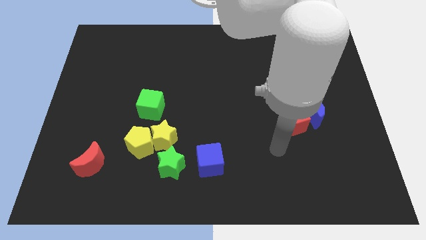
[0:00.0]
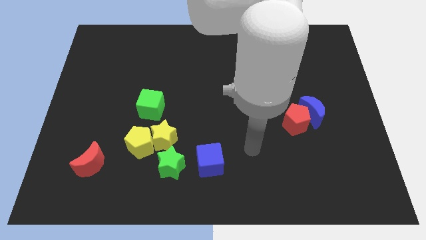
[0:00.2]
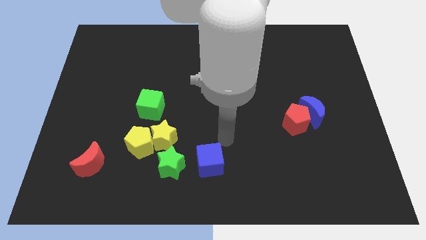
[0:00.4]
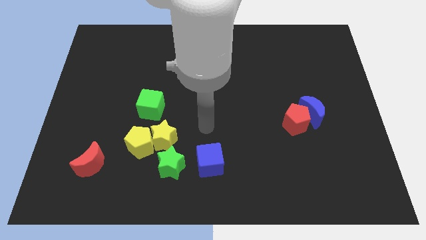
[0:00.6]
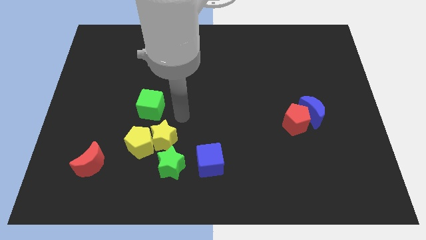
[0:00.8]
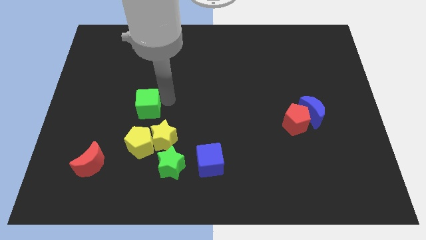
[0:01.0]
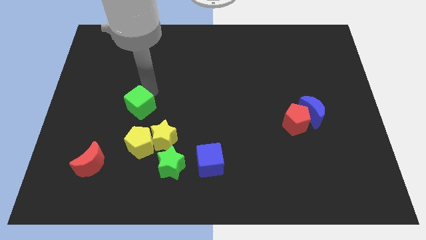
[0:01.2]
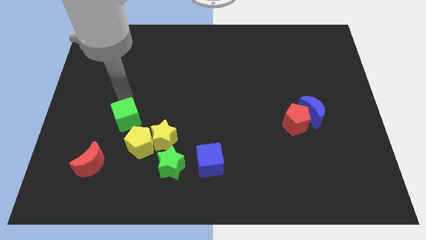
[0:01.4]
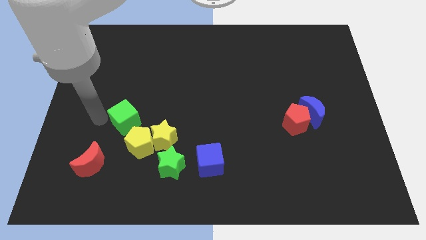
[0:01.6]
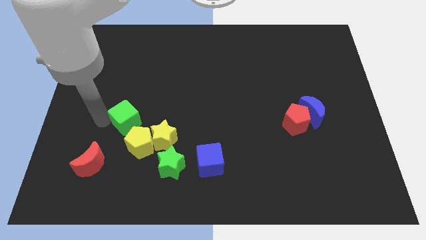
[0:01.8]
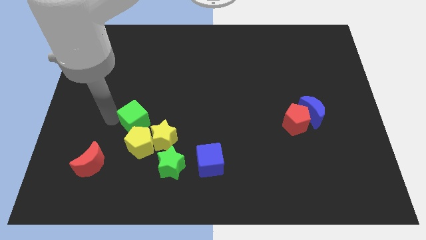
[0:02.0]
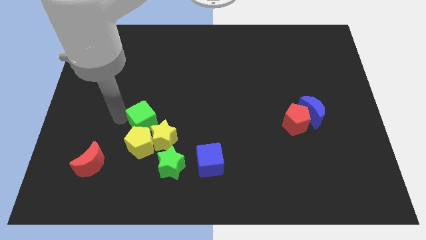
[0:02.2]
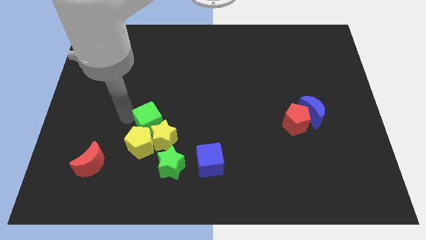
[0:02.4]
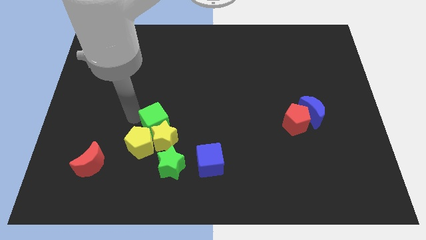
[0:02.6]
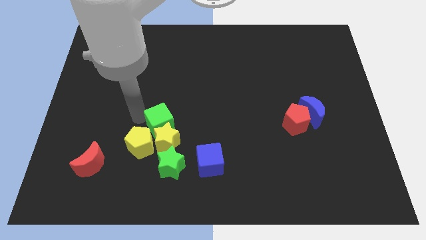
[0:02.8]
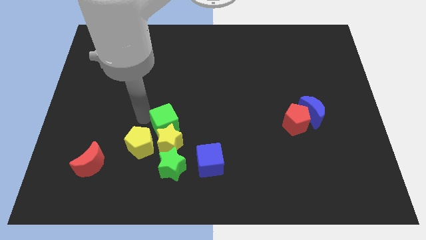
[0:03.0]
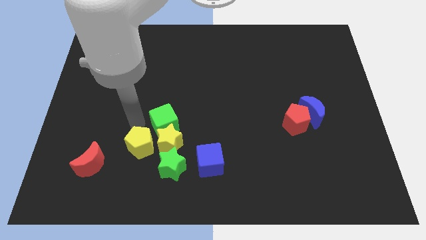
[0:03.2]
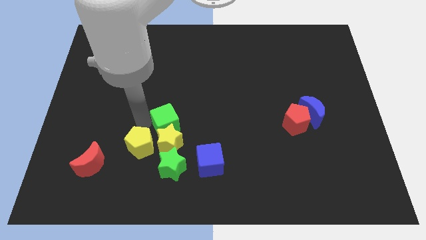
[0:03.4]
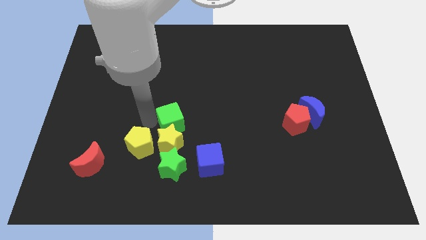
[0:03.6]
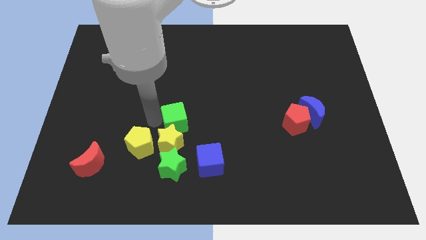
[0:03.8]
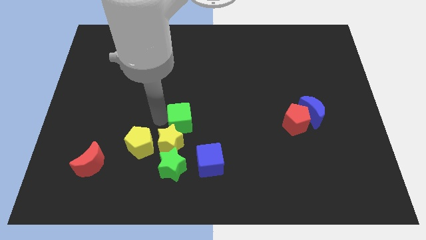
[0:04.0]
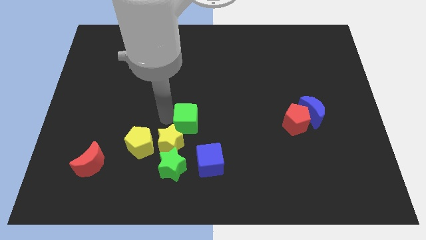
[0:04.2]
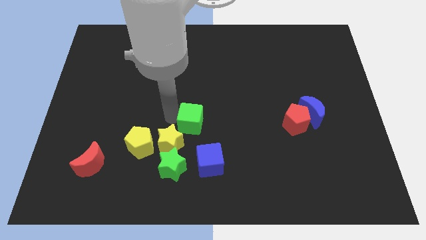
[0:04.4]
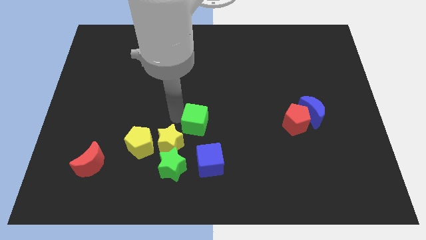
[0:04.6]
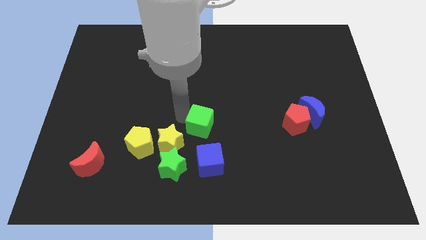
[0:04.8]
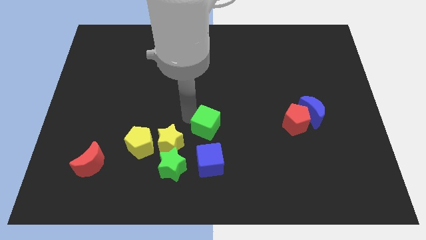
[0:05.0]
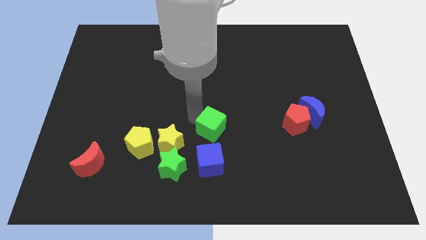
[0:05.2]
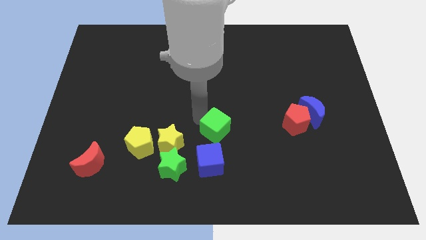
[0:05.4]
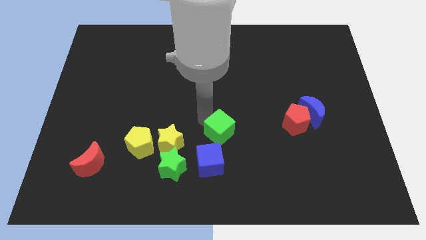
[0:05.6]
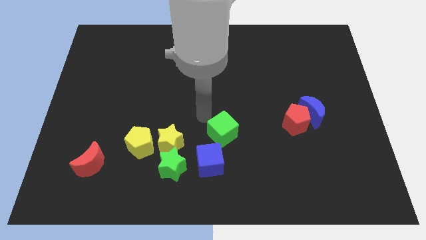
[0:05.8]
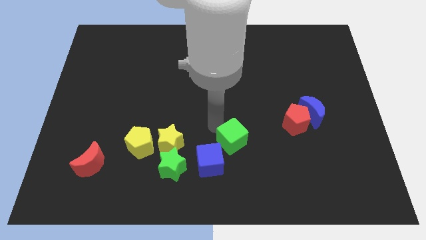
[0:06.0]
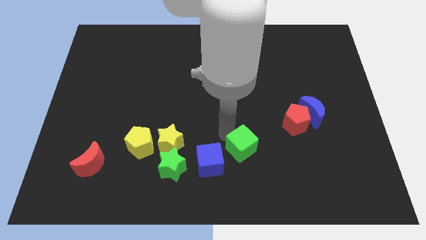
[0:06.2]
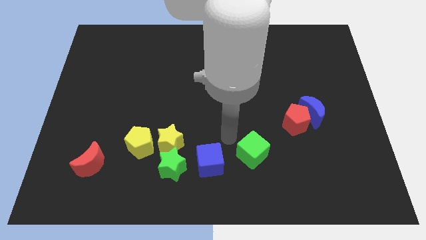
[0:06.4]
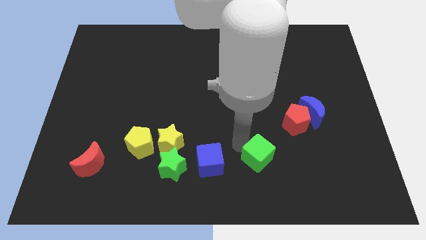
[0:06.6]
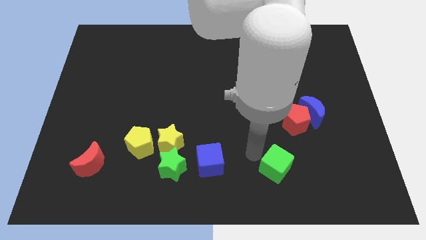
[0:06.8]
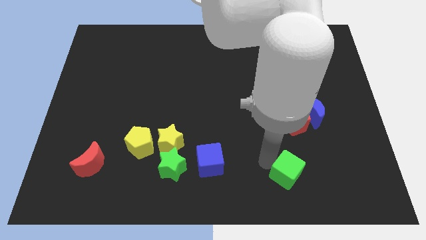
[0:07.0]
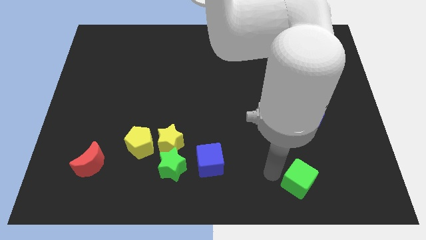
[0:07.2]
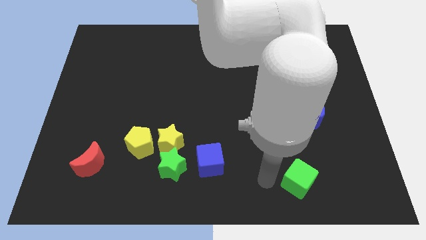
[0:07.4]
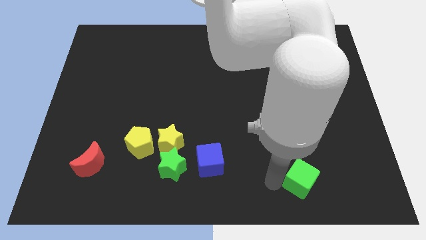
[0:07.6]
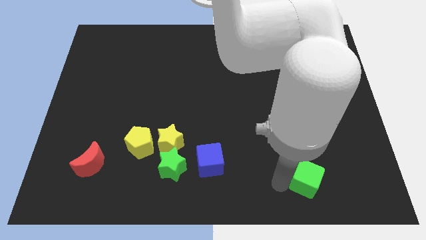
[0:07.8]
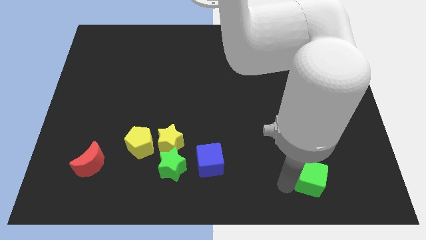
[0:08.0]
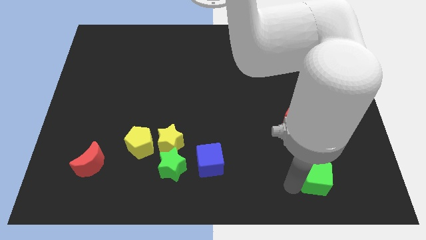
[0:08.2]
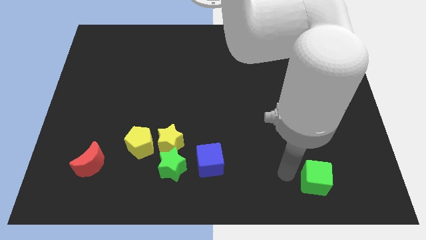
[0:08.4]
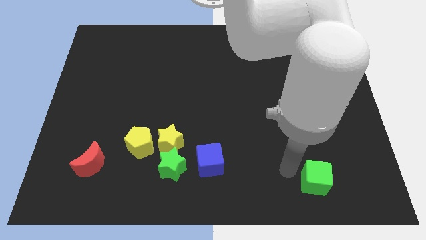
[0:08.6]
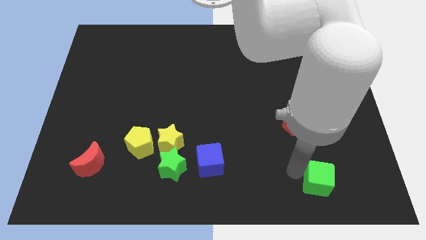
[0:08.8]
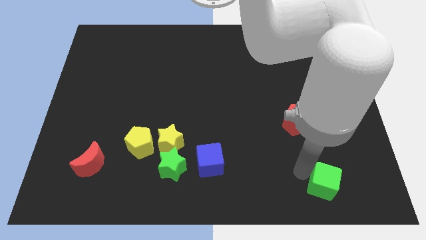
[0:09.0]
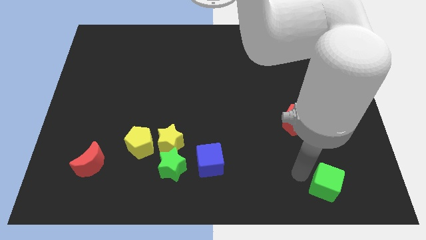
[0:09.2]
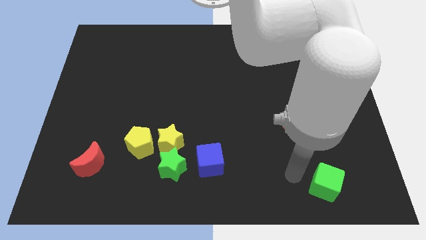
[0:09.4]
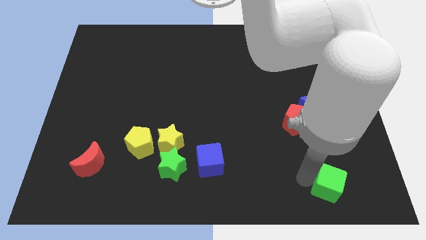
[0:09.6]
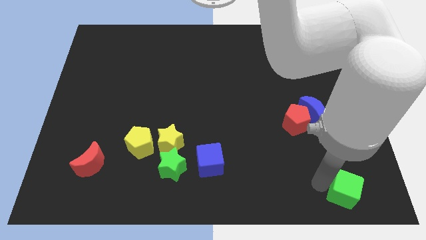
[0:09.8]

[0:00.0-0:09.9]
move the green cube to the bottom right of the board

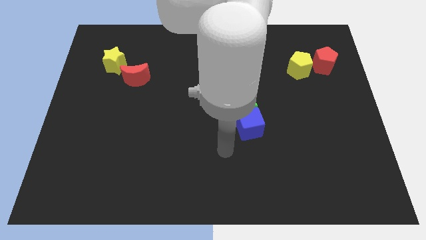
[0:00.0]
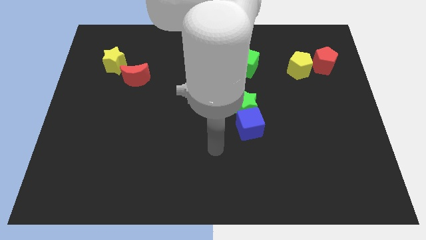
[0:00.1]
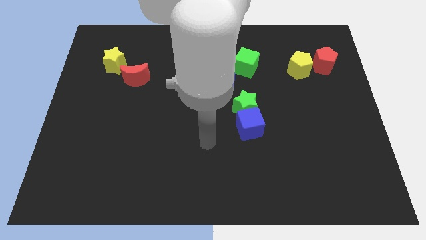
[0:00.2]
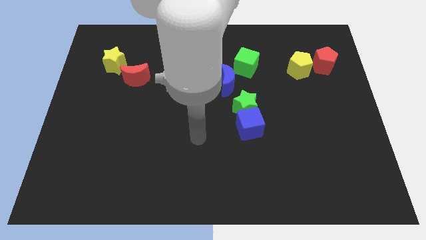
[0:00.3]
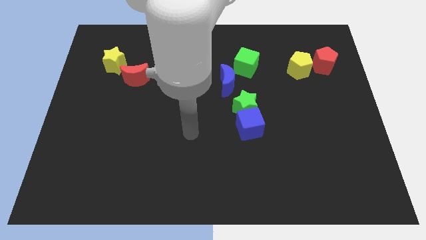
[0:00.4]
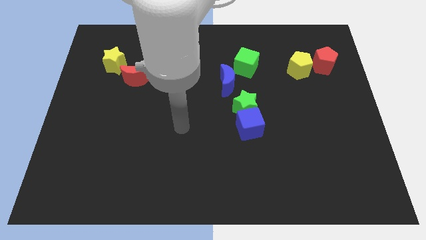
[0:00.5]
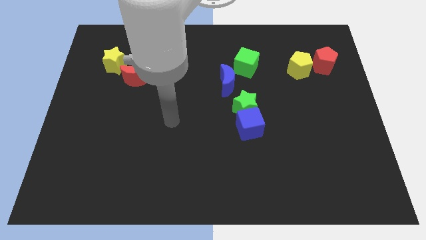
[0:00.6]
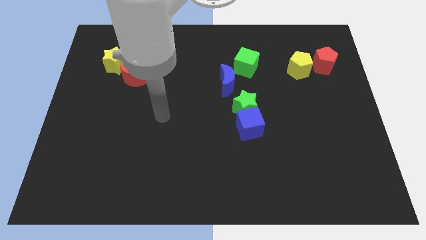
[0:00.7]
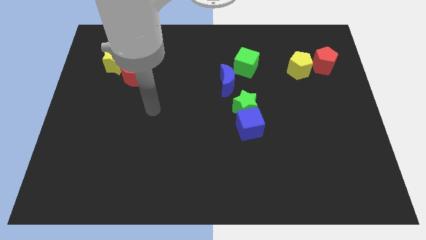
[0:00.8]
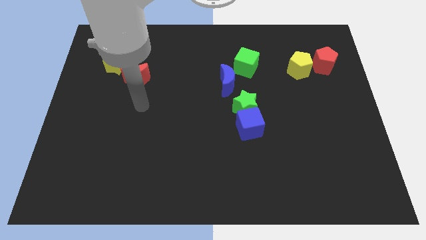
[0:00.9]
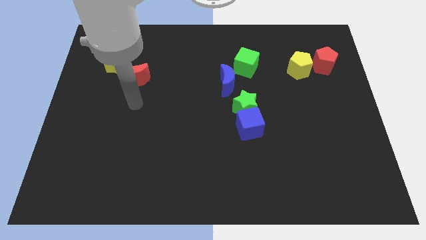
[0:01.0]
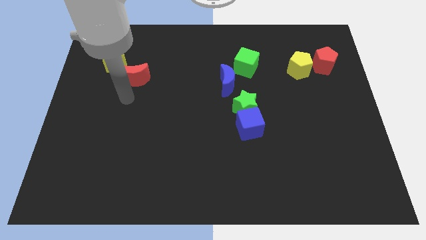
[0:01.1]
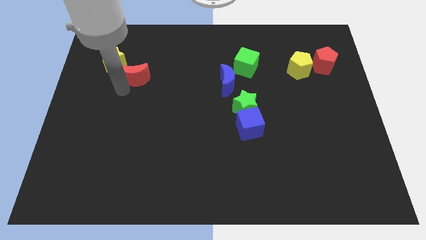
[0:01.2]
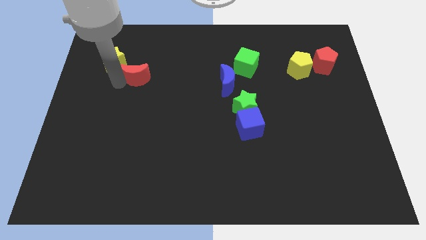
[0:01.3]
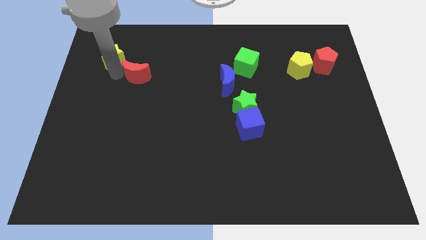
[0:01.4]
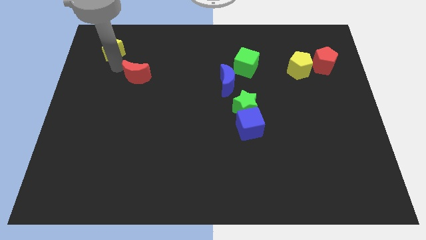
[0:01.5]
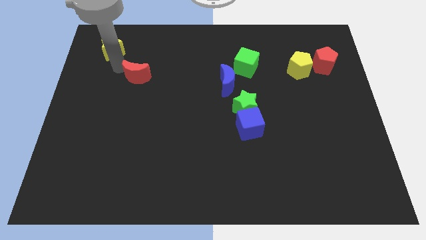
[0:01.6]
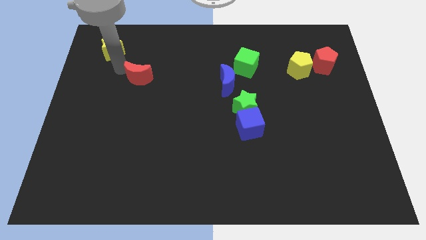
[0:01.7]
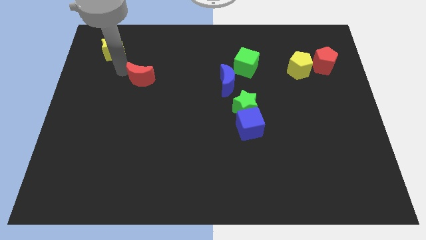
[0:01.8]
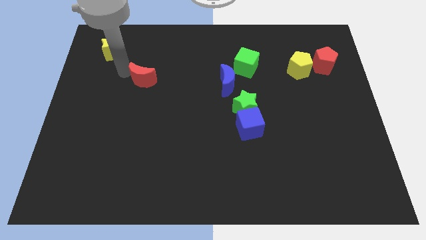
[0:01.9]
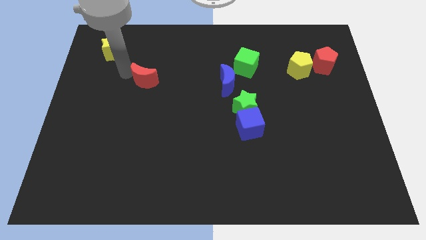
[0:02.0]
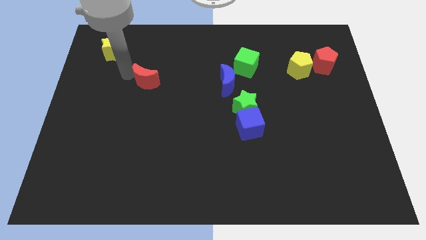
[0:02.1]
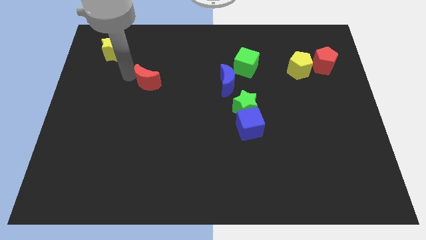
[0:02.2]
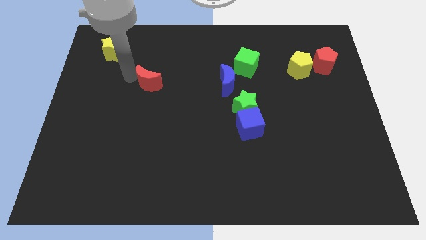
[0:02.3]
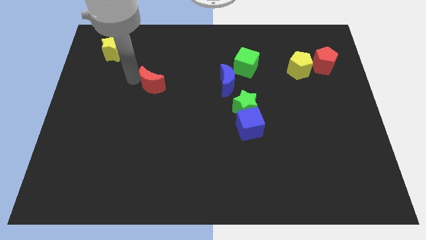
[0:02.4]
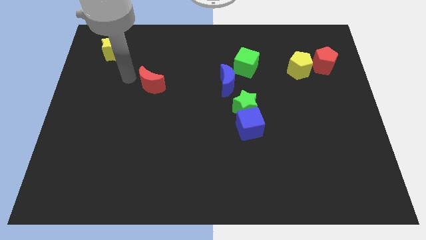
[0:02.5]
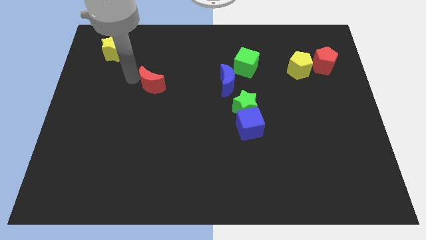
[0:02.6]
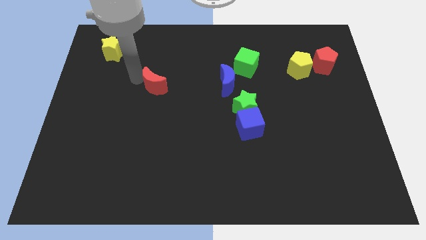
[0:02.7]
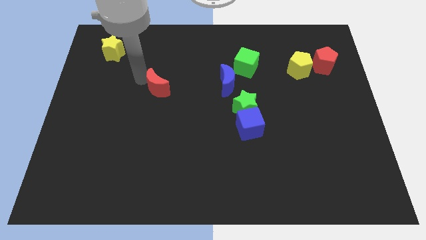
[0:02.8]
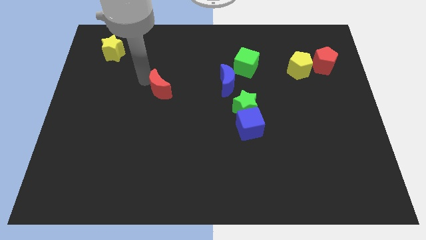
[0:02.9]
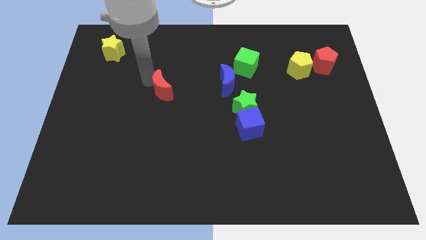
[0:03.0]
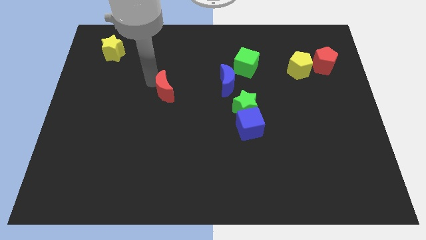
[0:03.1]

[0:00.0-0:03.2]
push the red moon to the middle
